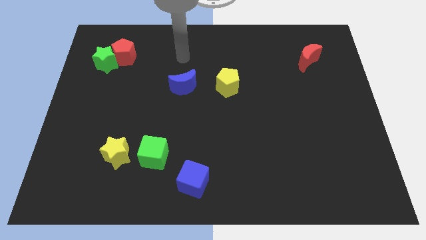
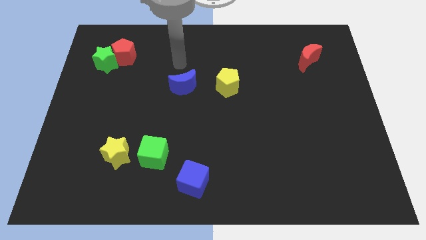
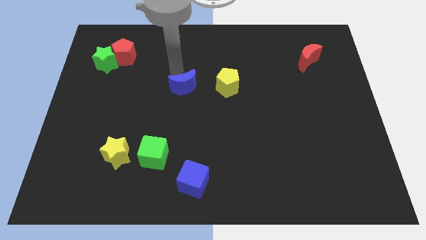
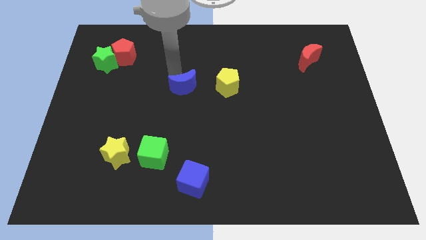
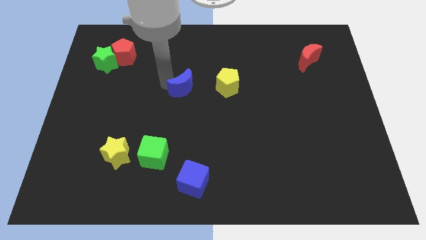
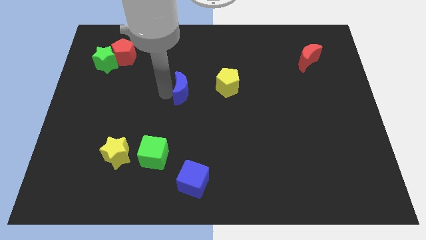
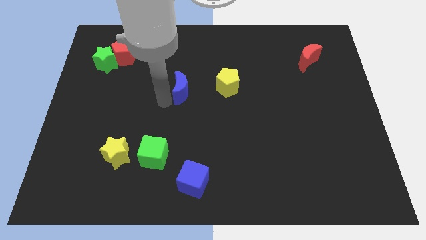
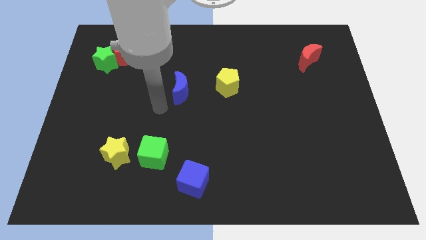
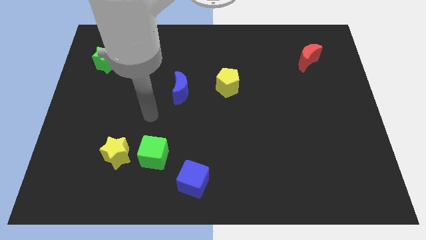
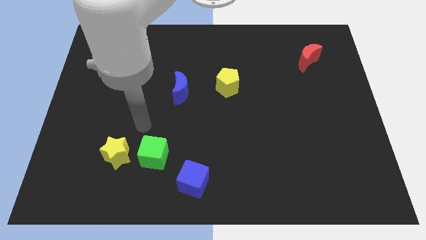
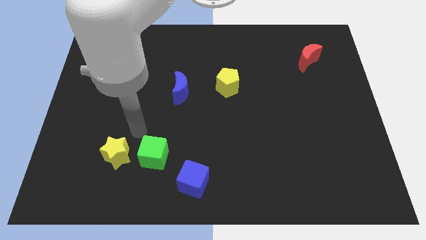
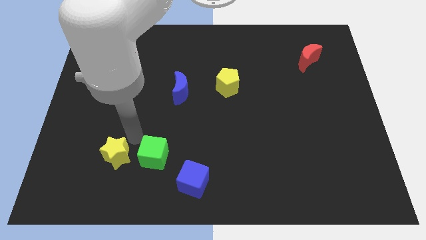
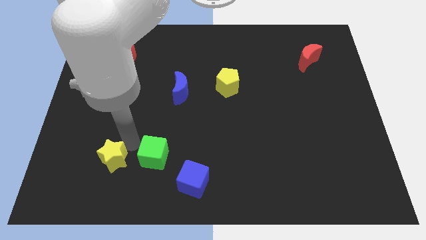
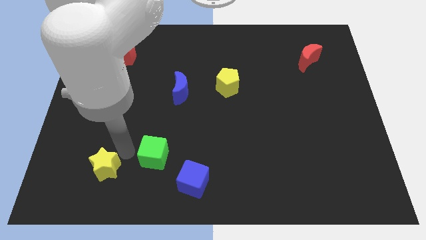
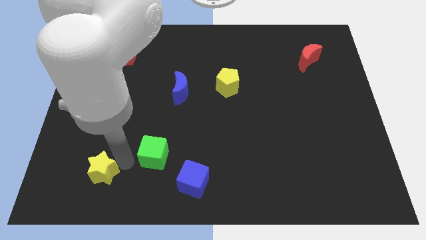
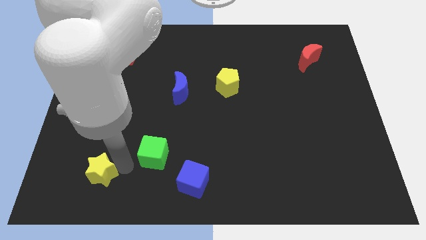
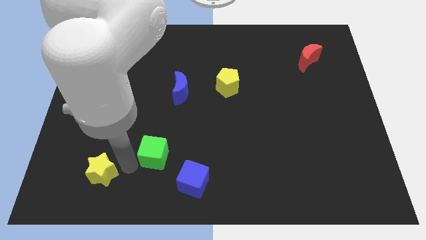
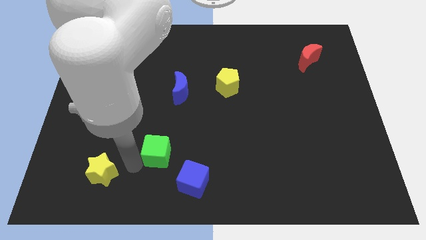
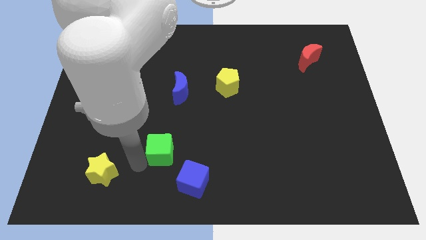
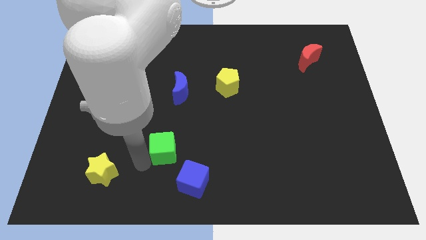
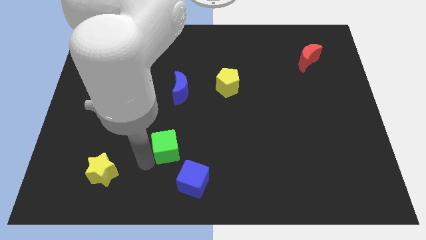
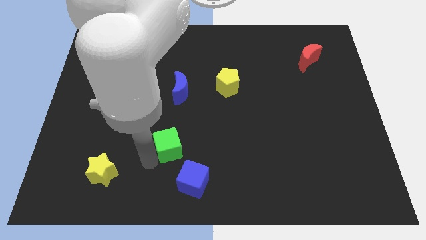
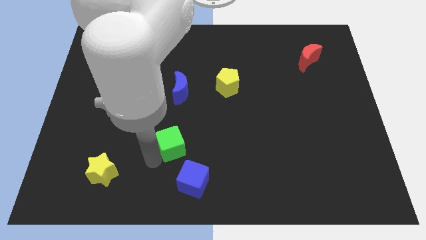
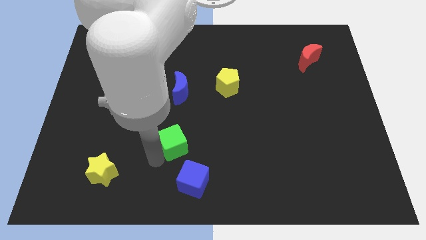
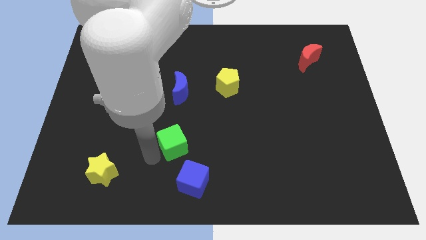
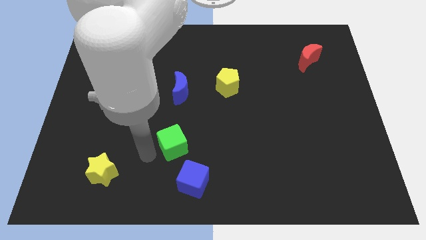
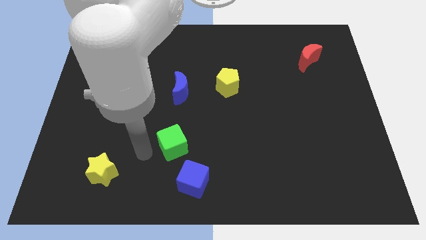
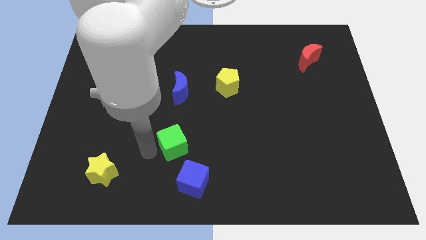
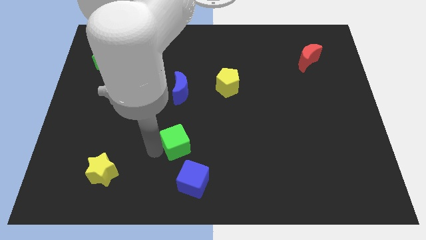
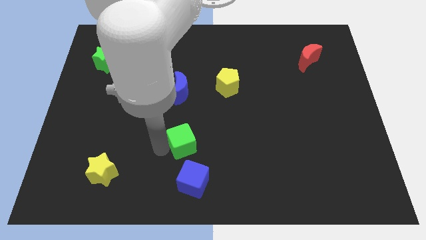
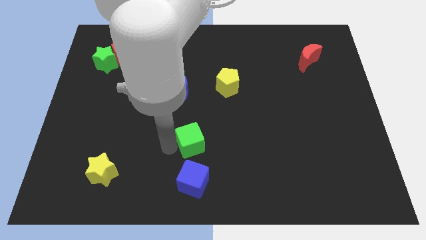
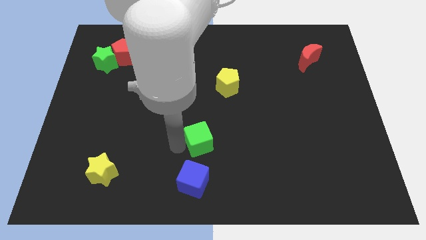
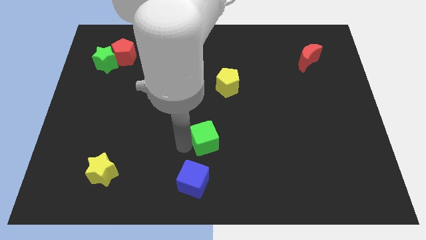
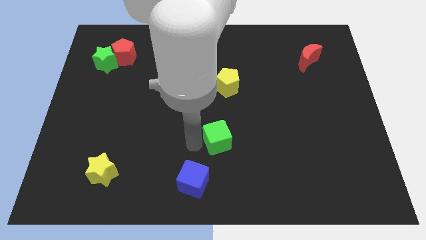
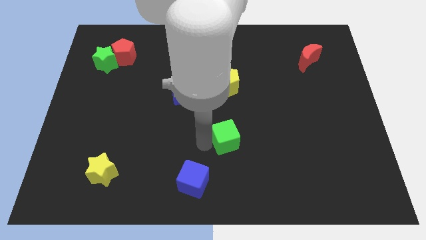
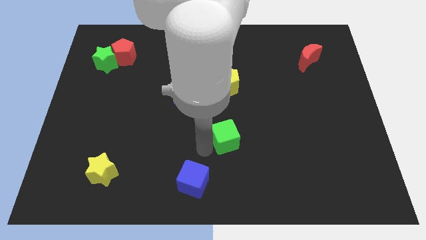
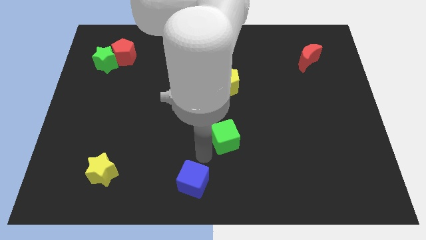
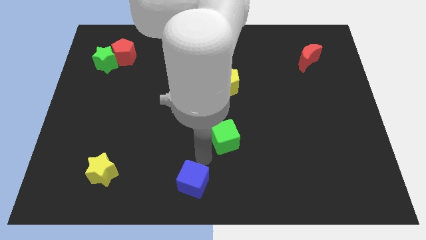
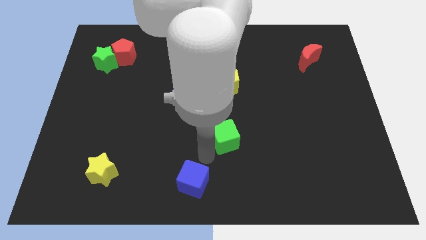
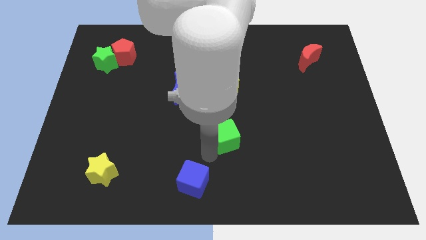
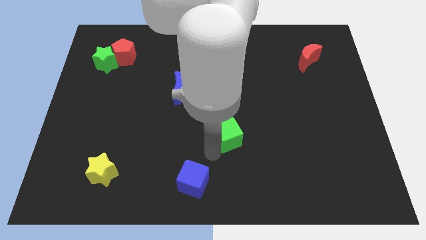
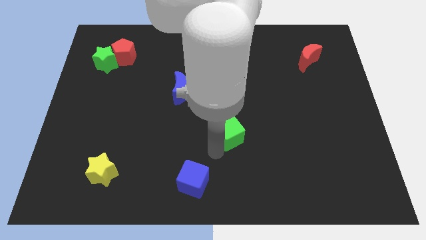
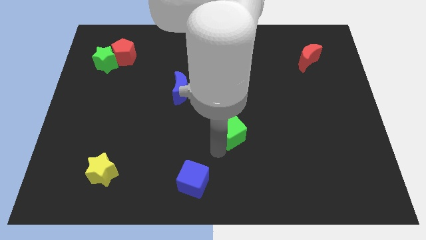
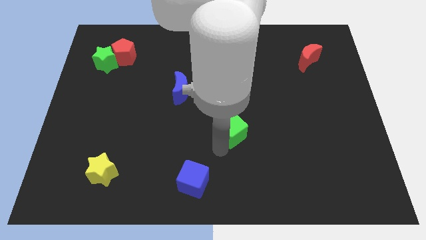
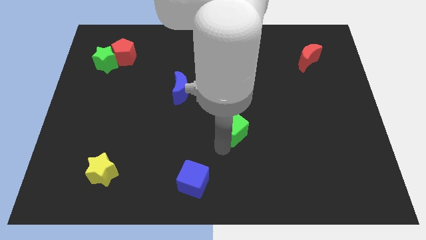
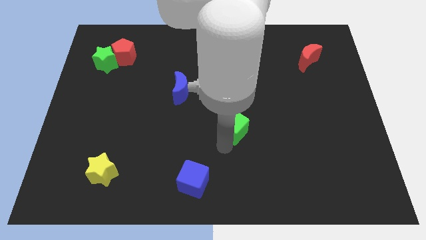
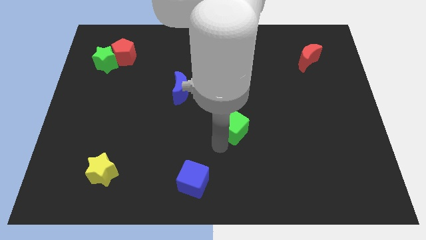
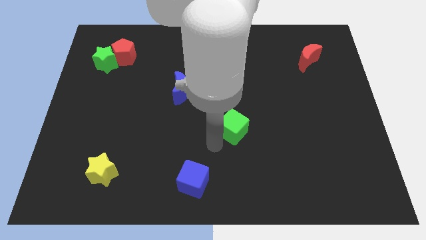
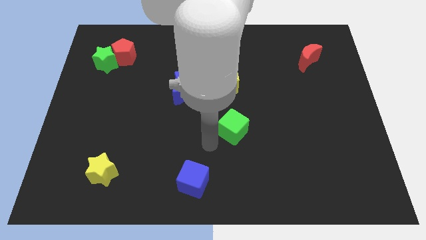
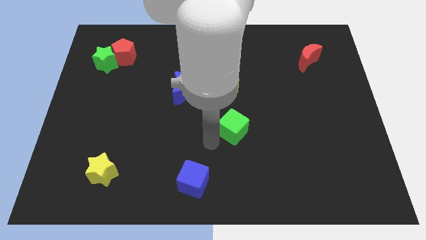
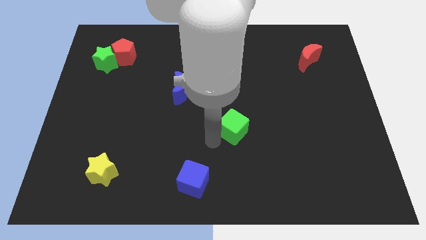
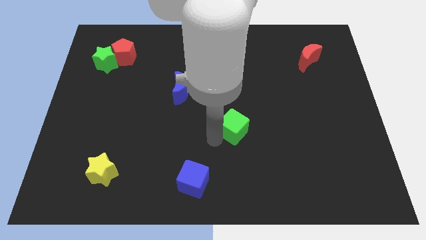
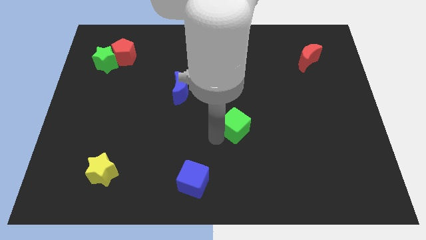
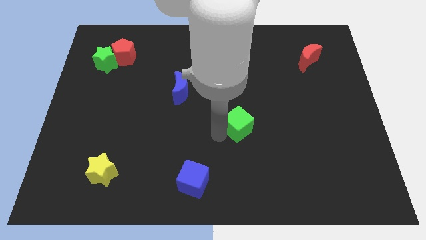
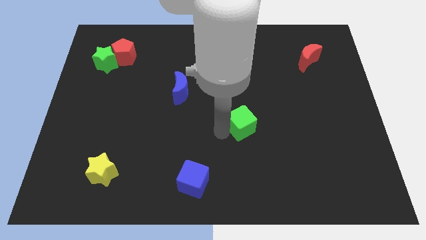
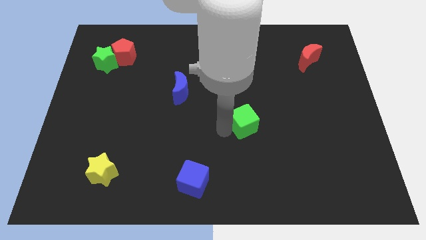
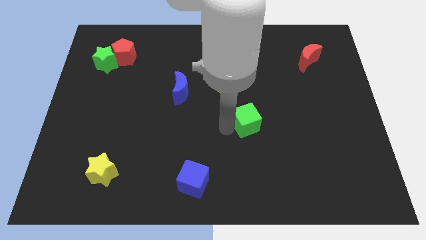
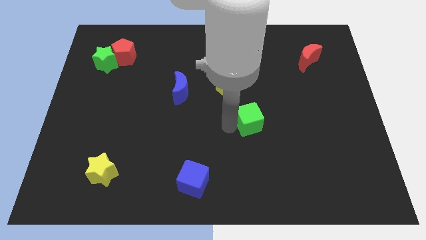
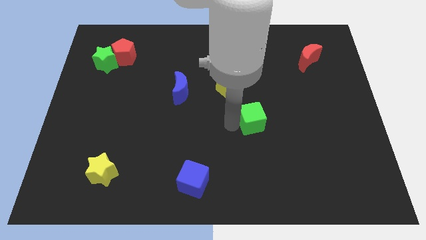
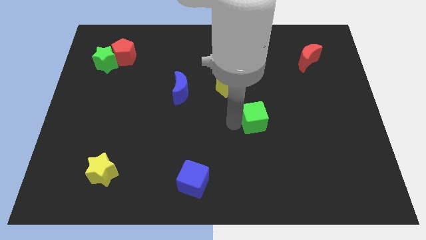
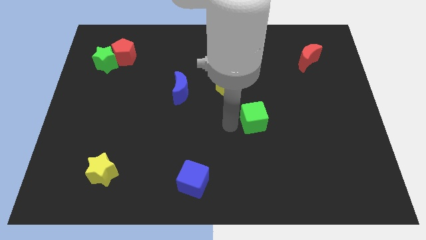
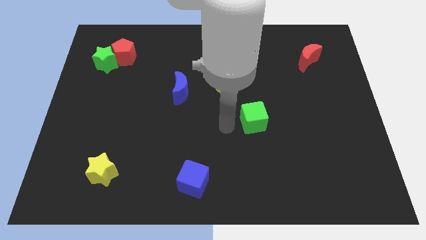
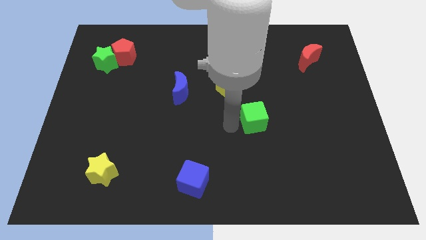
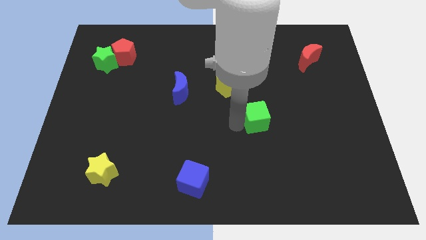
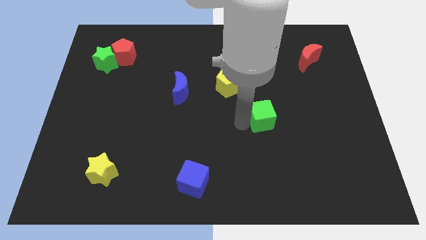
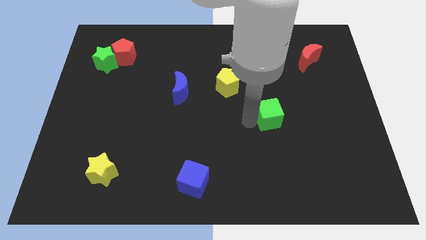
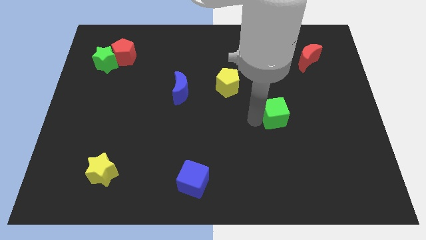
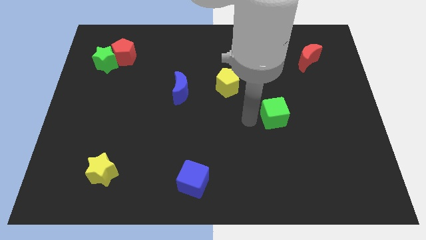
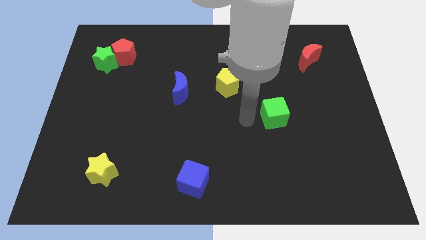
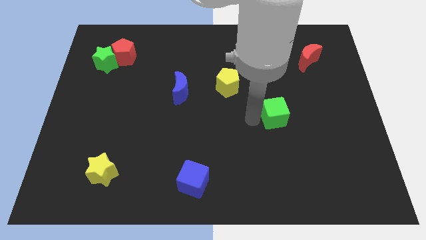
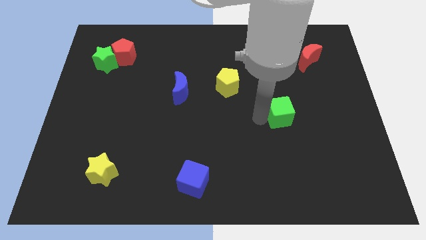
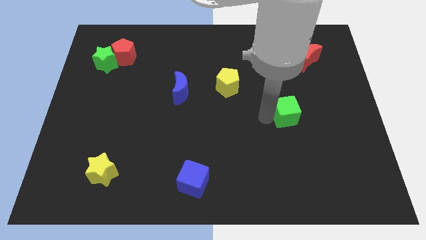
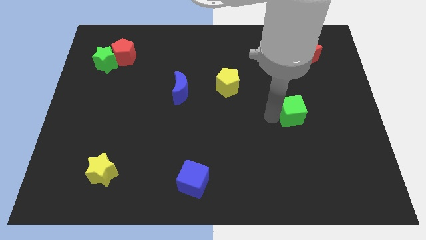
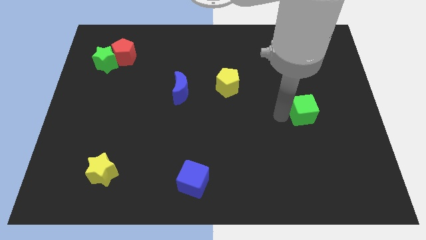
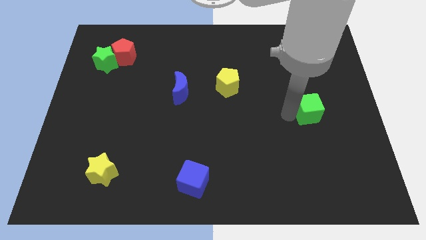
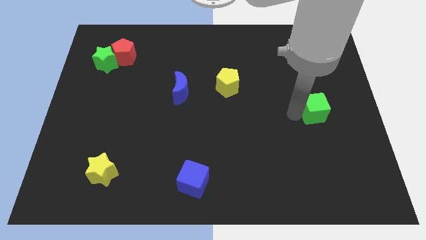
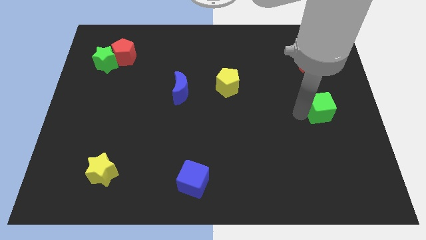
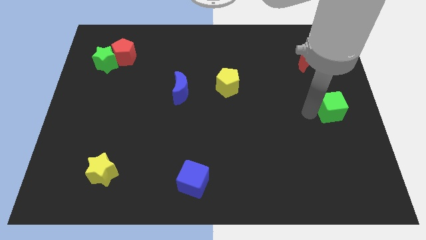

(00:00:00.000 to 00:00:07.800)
slide the green cube to the center right
